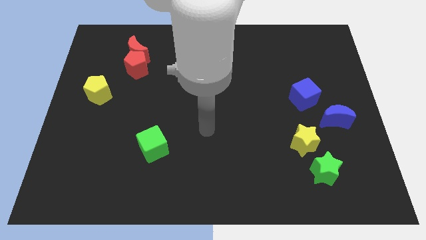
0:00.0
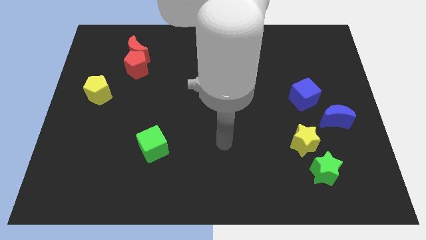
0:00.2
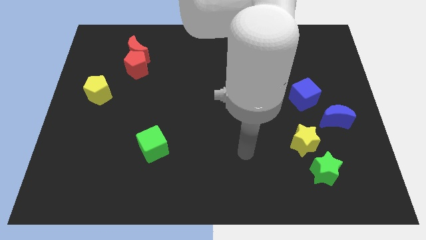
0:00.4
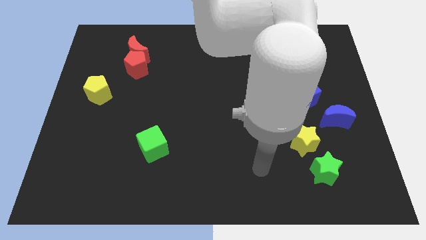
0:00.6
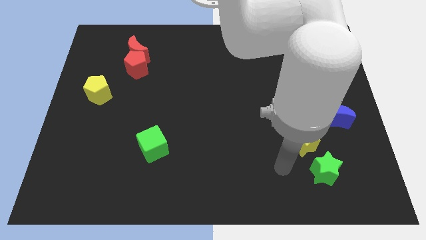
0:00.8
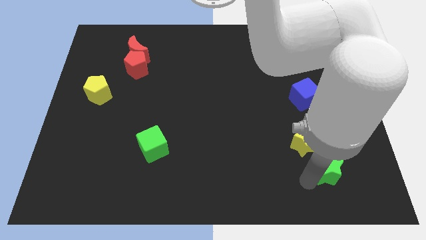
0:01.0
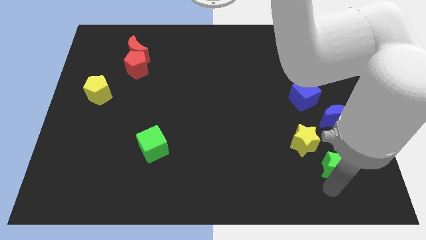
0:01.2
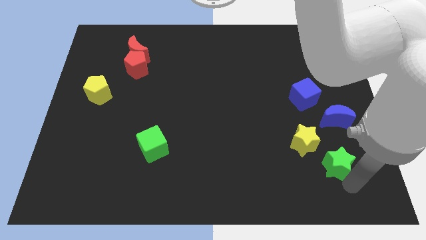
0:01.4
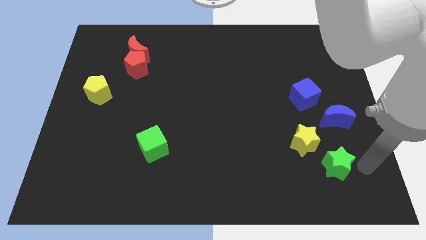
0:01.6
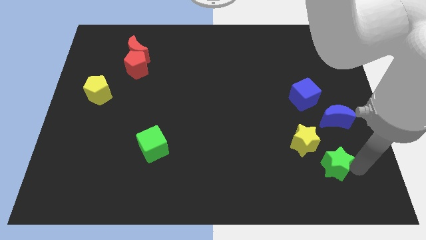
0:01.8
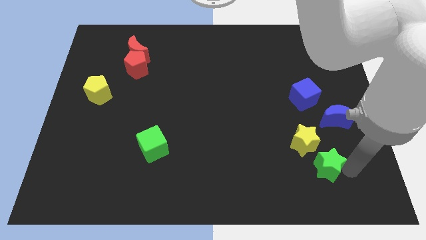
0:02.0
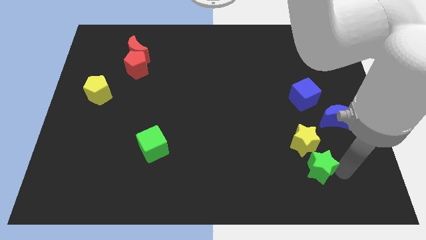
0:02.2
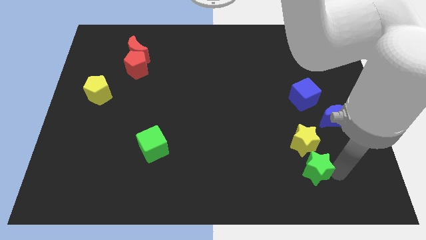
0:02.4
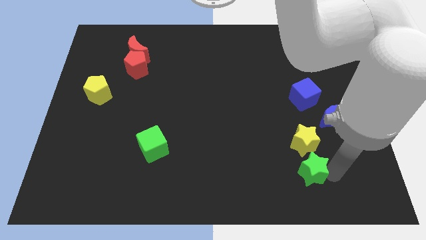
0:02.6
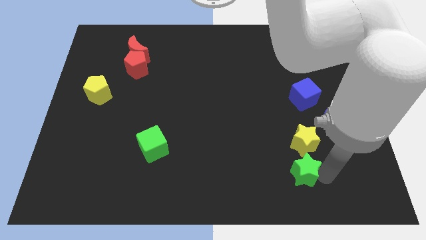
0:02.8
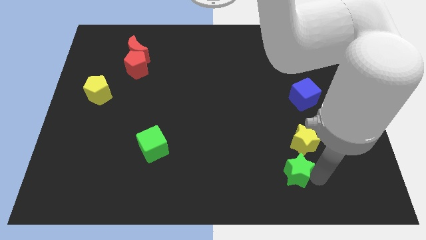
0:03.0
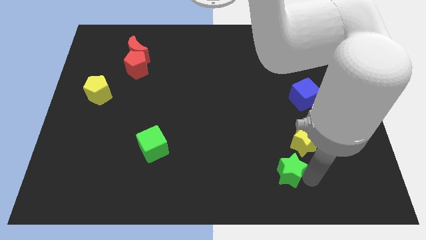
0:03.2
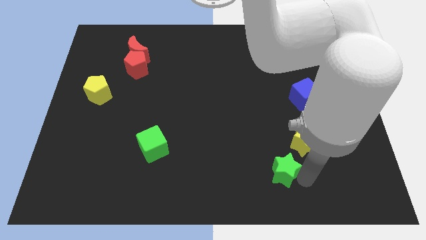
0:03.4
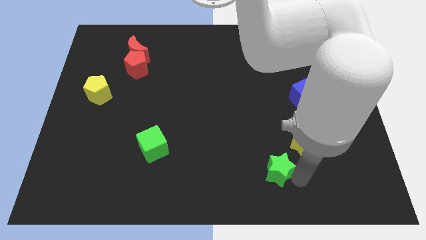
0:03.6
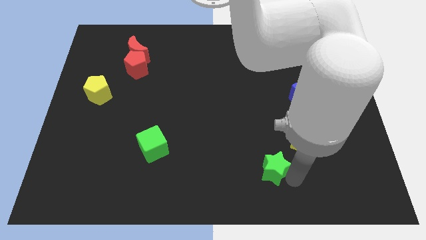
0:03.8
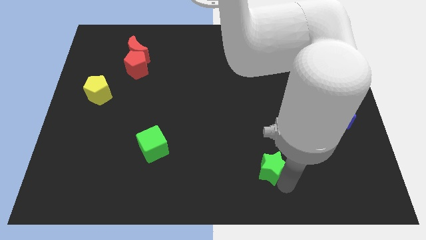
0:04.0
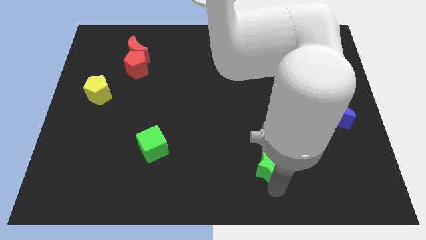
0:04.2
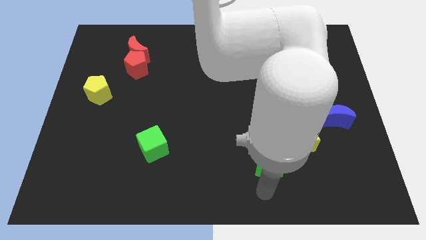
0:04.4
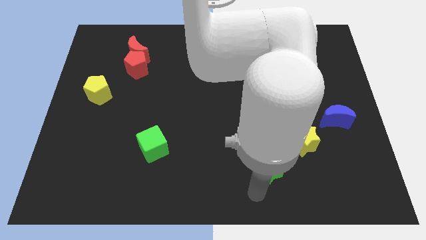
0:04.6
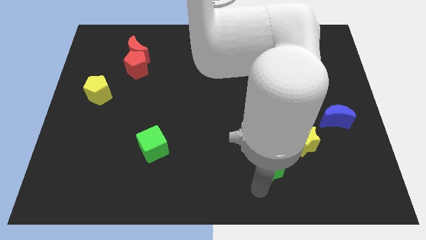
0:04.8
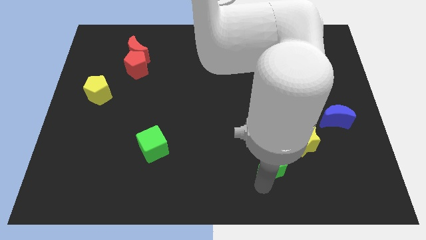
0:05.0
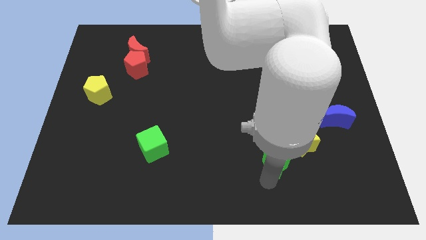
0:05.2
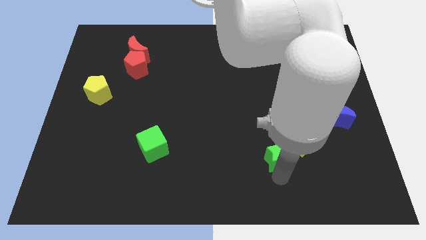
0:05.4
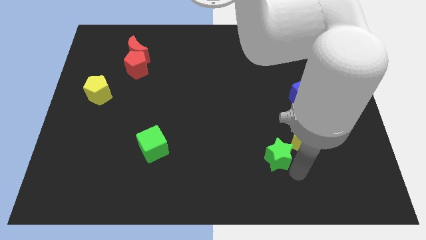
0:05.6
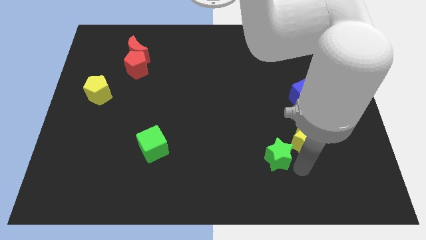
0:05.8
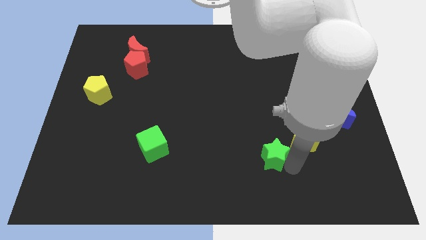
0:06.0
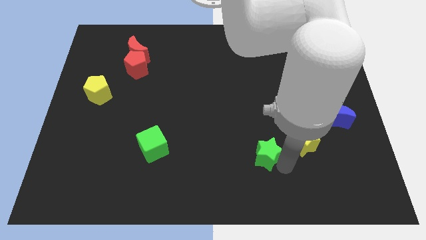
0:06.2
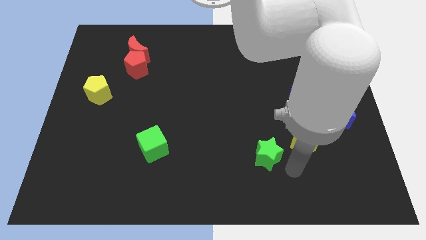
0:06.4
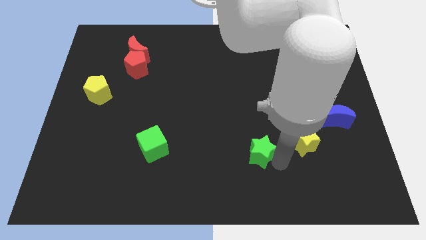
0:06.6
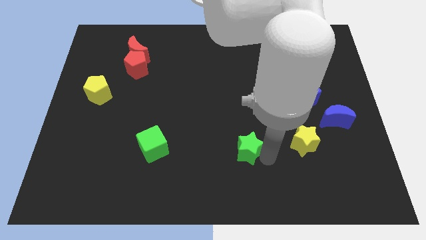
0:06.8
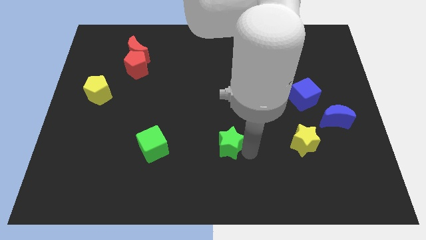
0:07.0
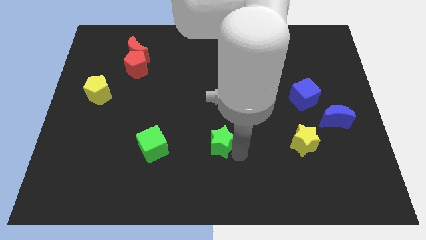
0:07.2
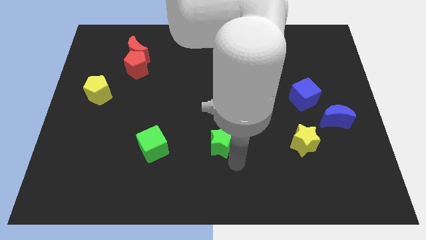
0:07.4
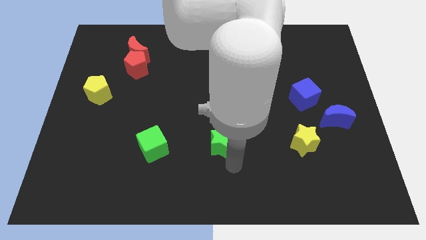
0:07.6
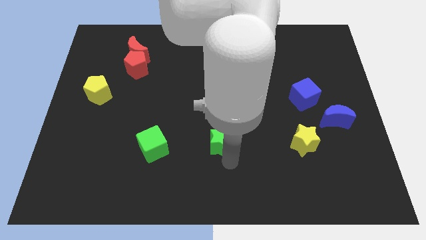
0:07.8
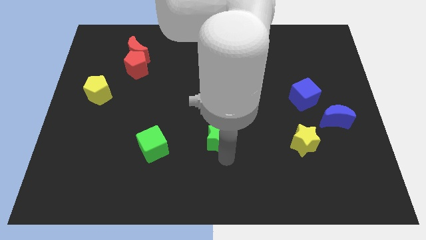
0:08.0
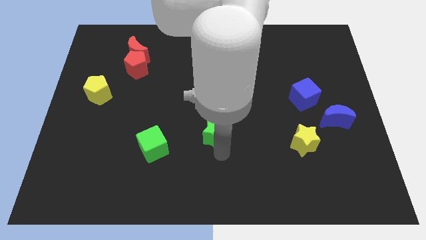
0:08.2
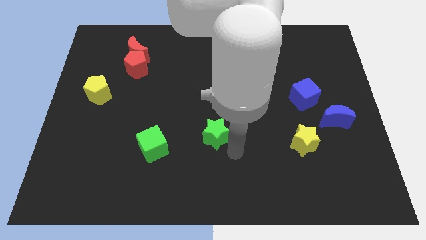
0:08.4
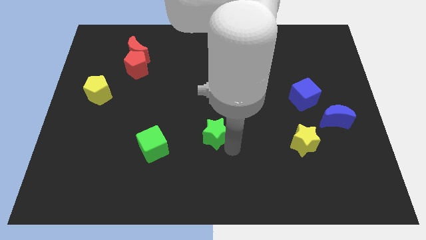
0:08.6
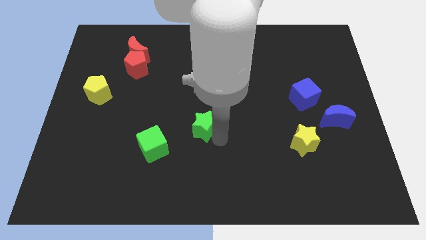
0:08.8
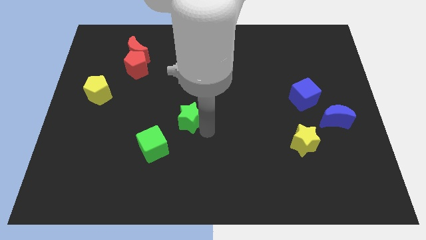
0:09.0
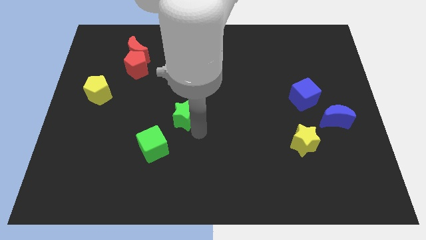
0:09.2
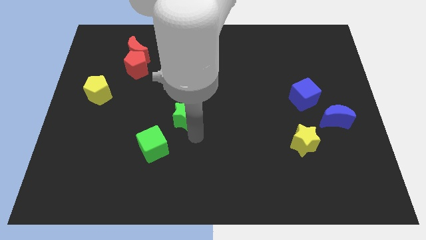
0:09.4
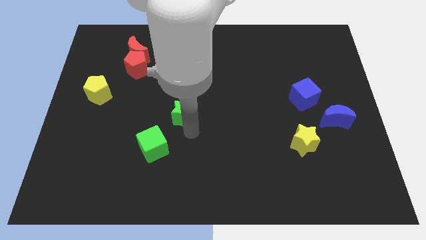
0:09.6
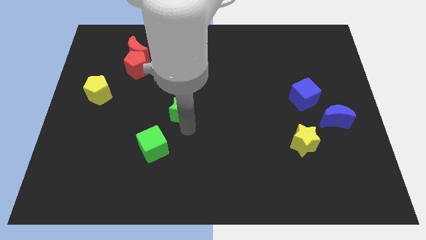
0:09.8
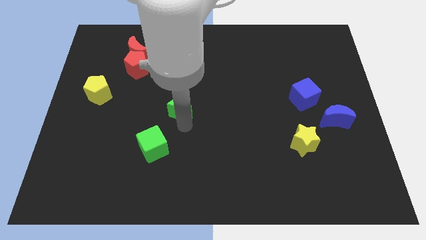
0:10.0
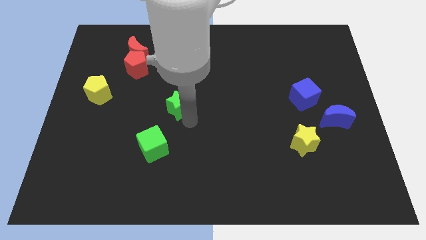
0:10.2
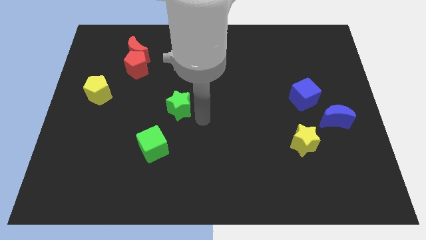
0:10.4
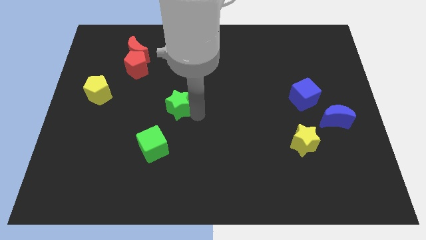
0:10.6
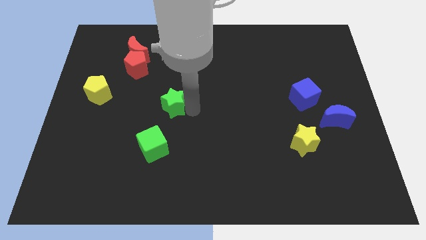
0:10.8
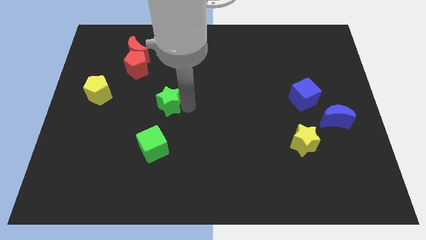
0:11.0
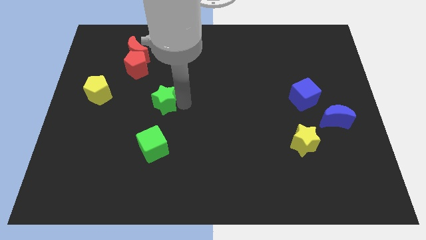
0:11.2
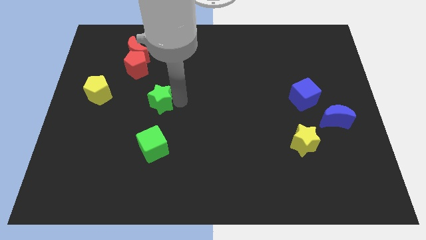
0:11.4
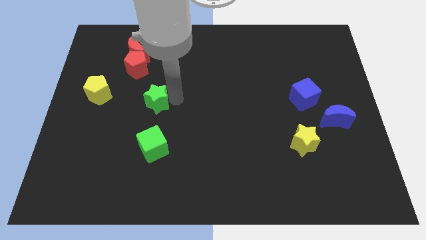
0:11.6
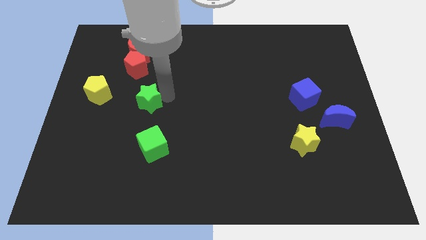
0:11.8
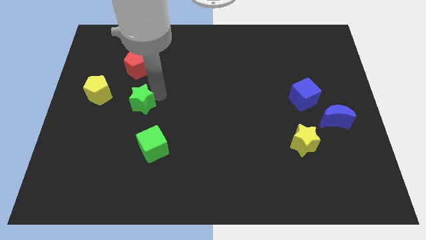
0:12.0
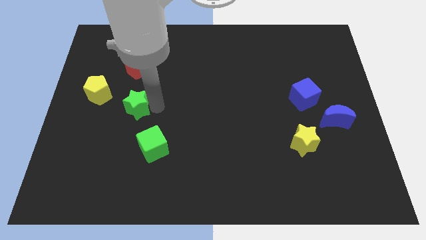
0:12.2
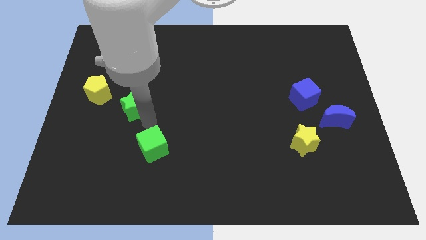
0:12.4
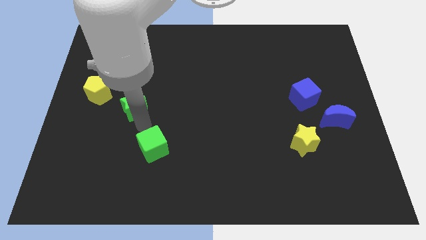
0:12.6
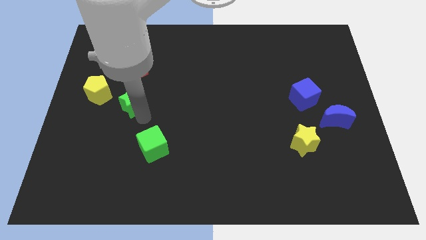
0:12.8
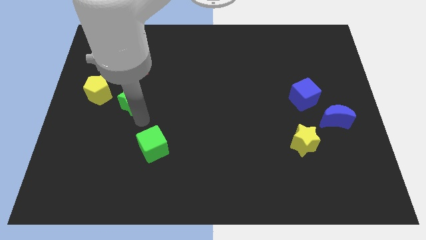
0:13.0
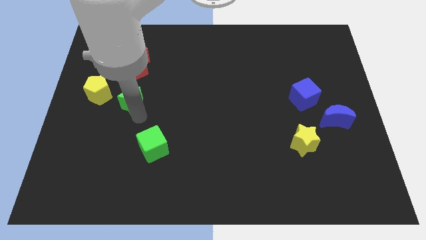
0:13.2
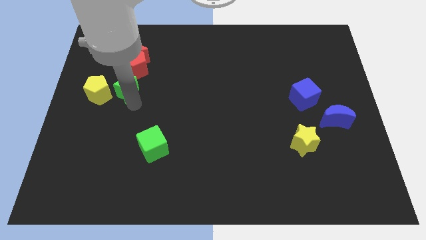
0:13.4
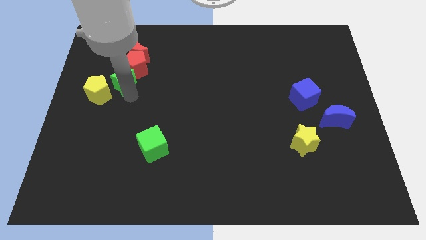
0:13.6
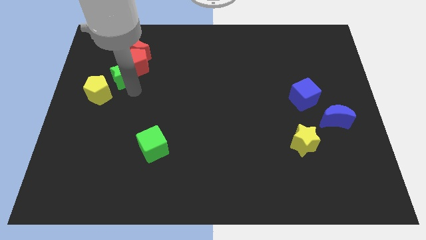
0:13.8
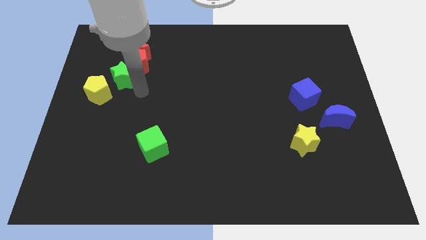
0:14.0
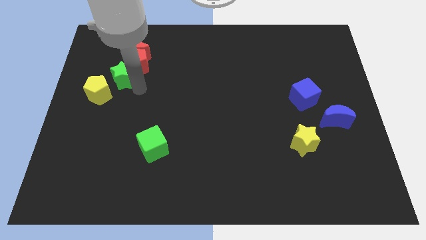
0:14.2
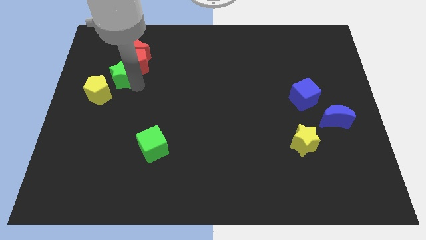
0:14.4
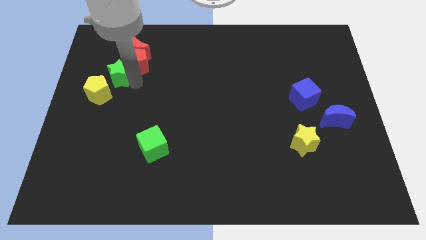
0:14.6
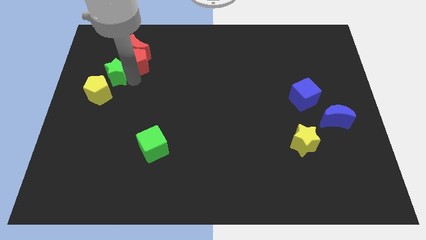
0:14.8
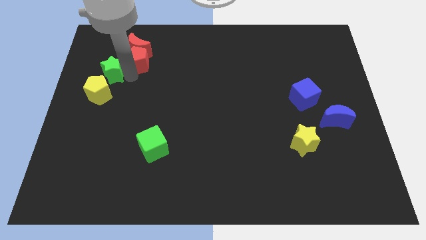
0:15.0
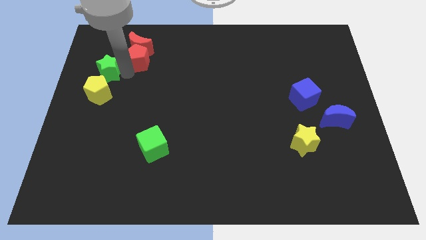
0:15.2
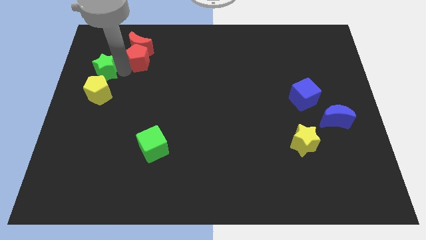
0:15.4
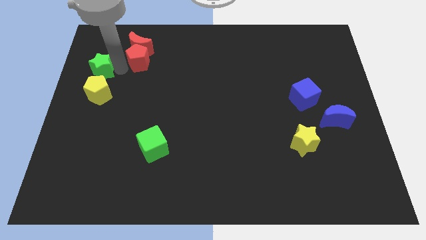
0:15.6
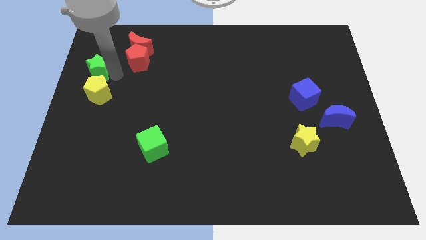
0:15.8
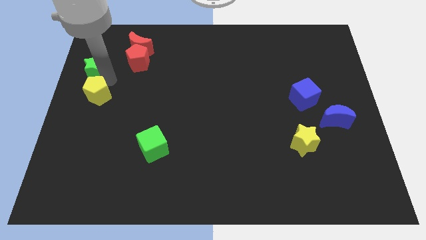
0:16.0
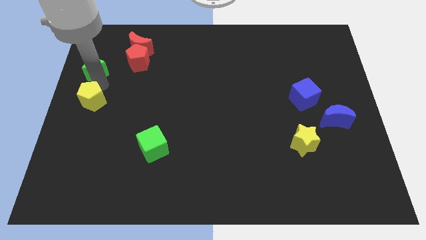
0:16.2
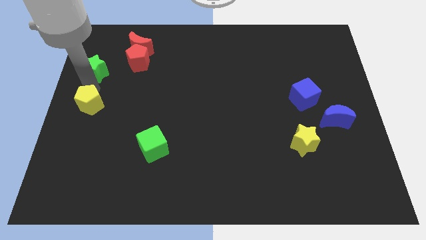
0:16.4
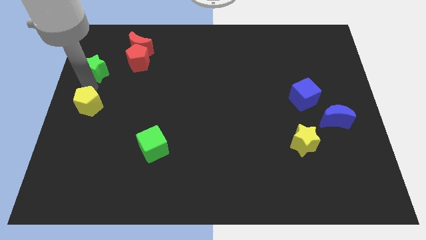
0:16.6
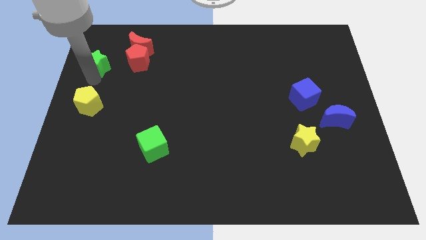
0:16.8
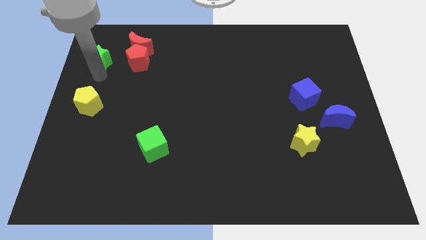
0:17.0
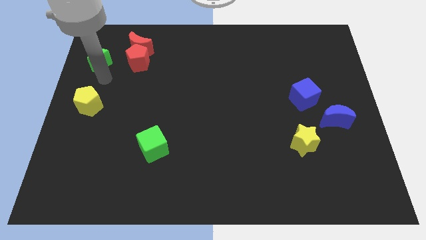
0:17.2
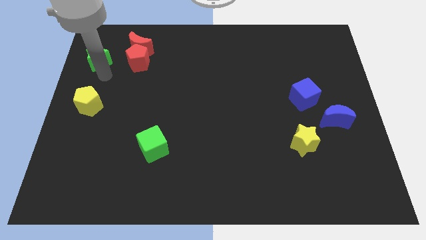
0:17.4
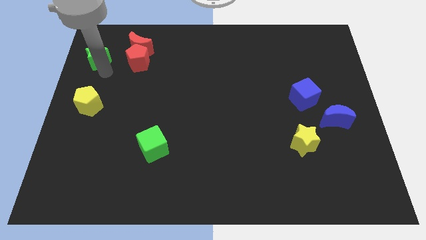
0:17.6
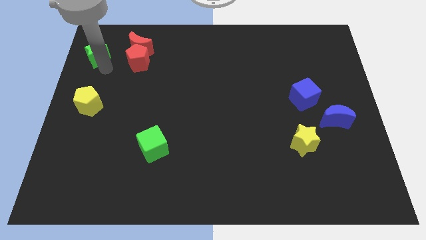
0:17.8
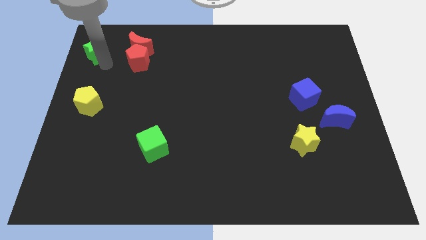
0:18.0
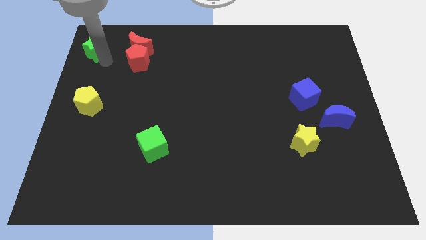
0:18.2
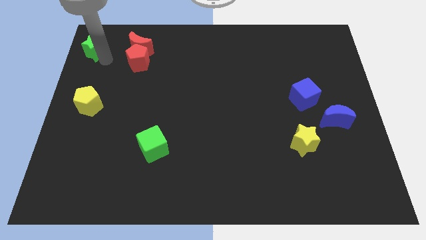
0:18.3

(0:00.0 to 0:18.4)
push the green star to the upper left corner
